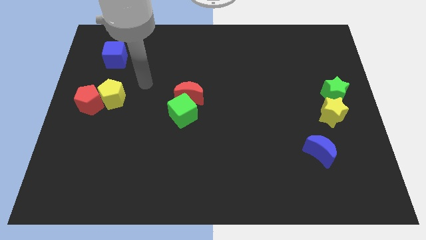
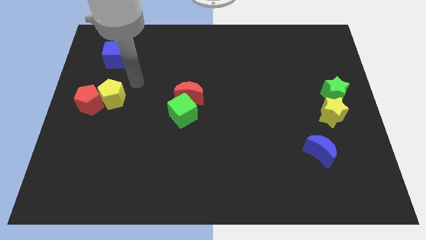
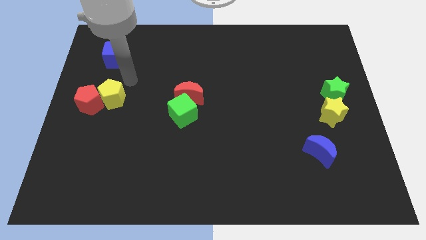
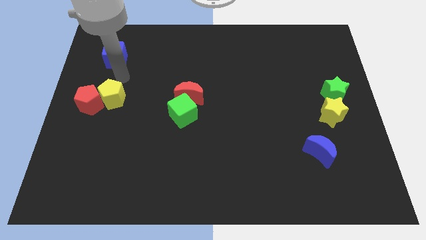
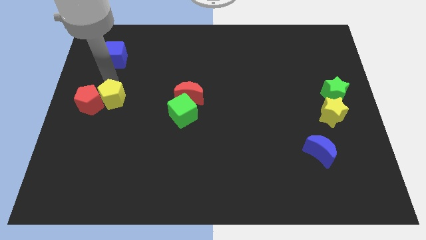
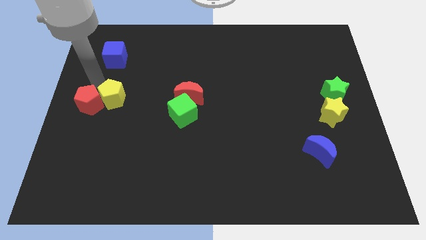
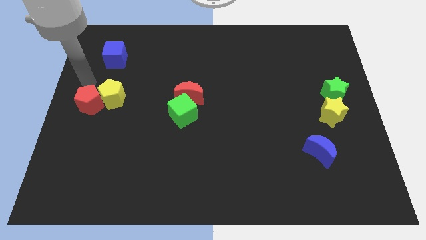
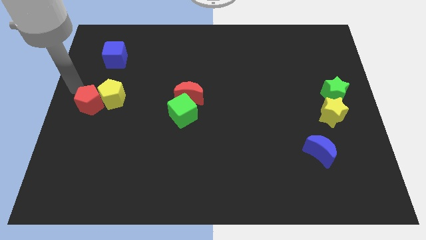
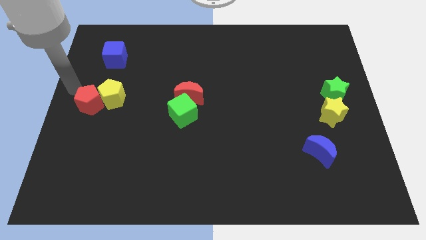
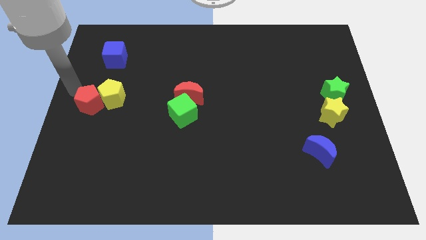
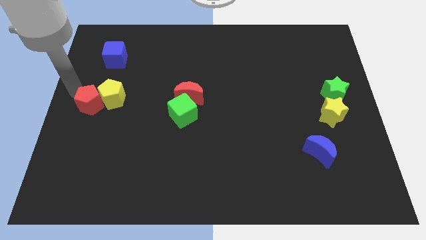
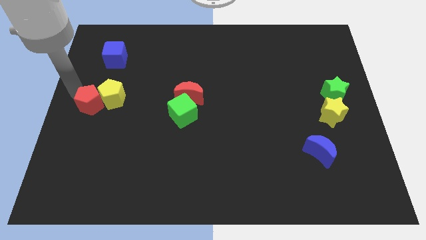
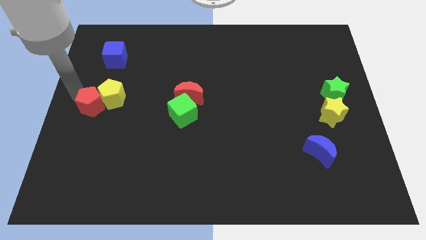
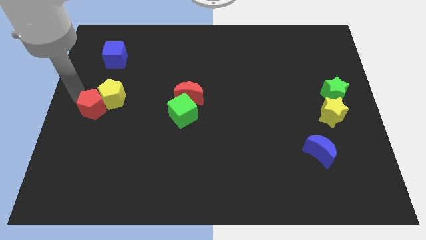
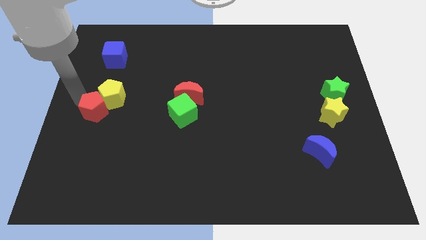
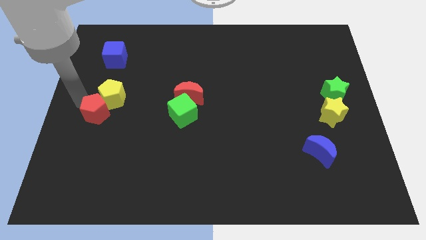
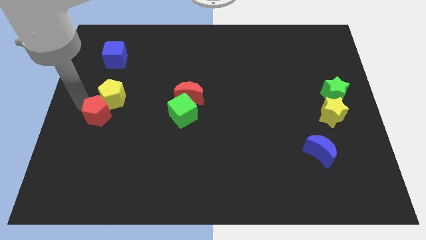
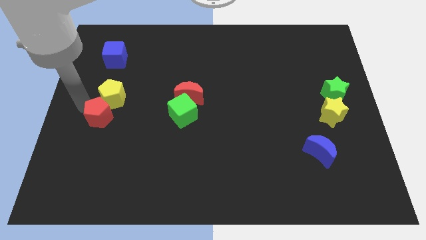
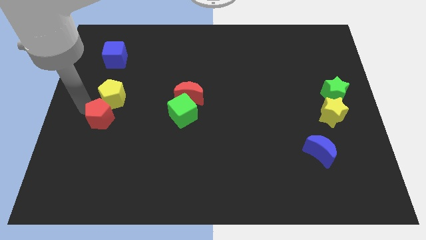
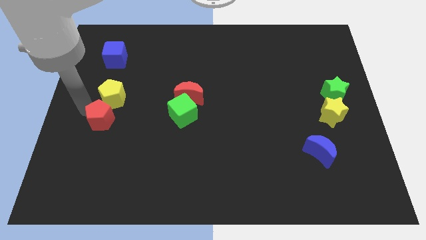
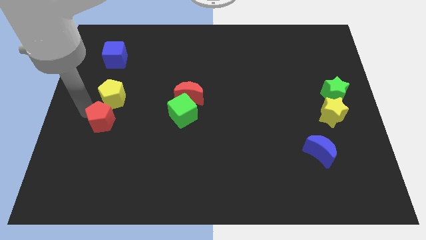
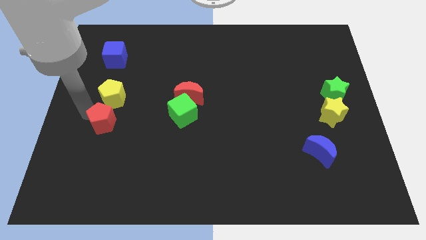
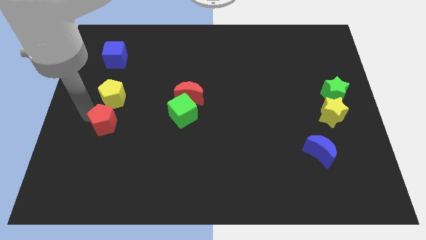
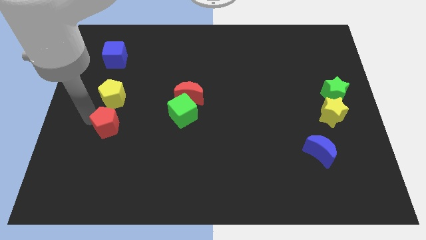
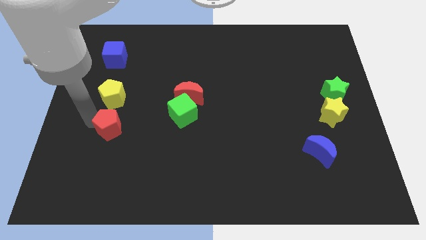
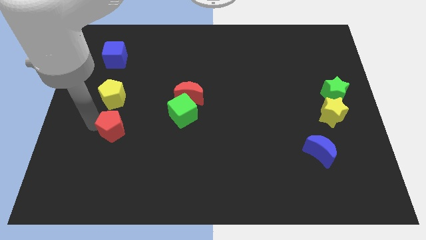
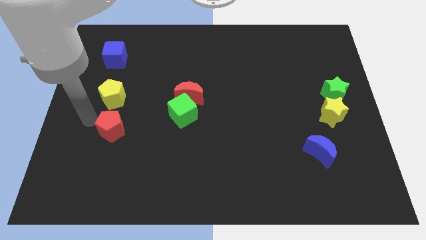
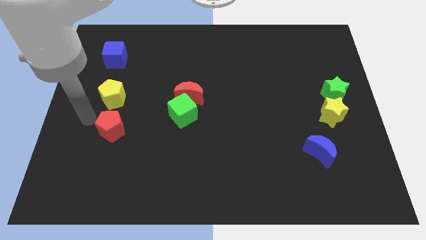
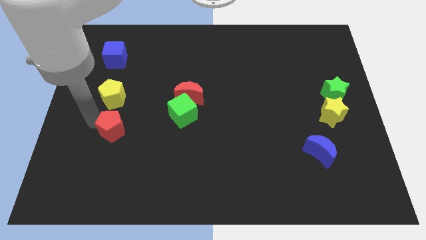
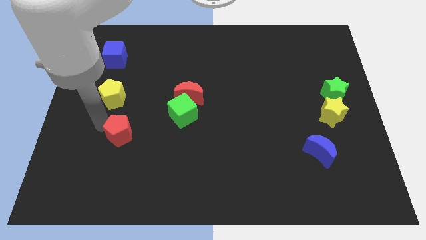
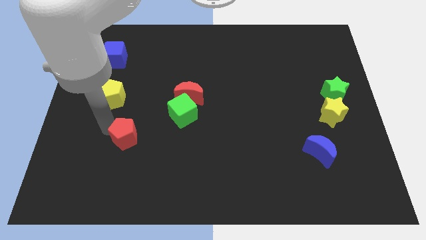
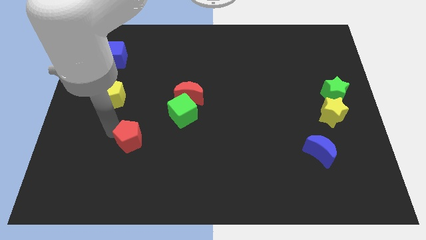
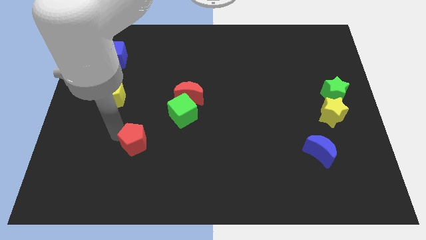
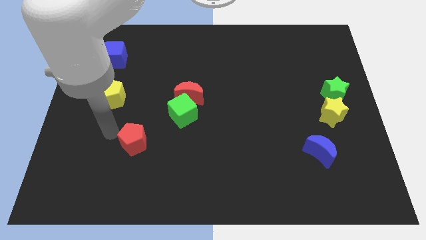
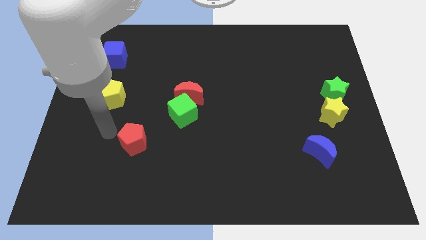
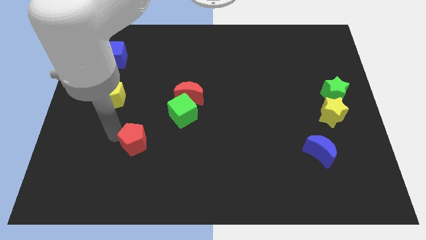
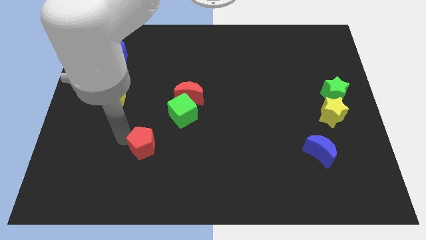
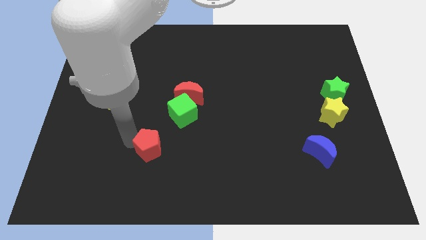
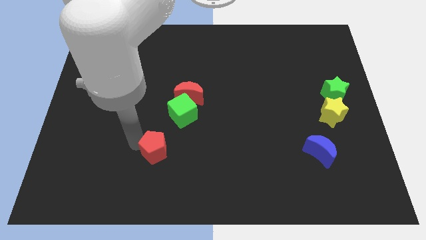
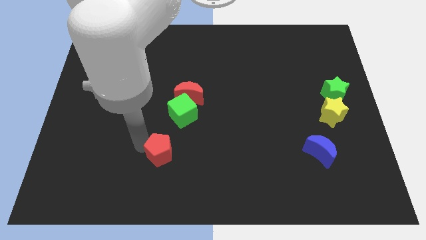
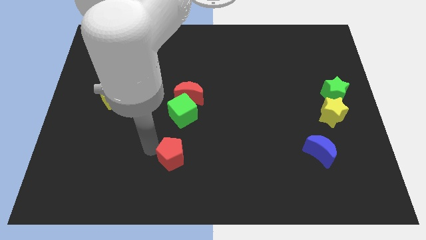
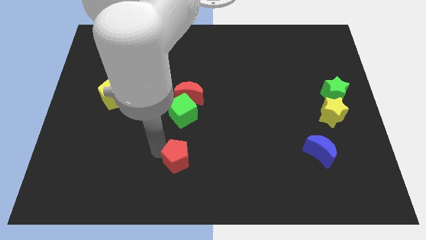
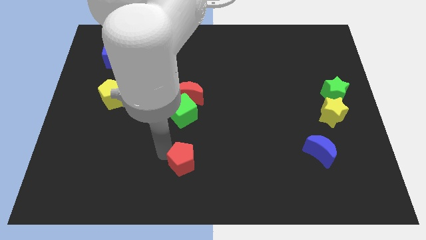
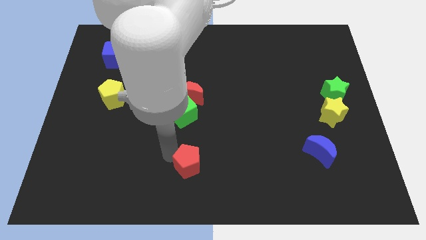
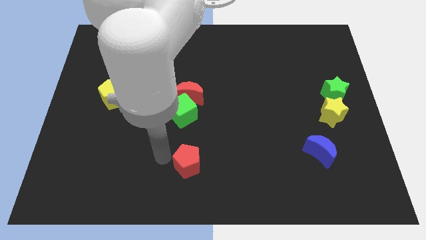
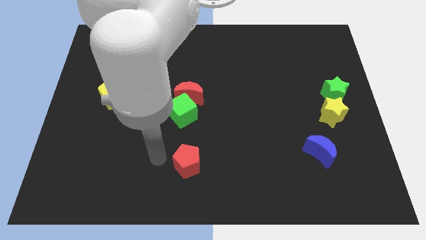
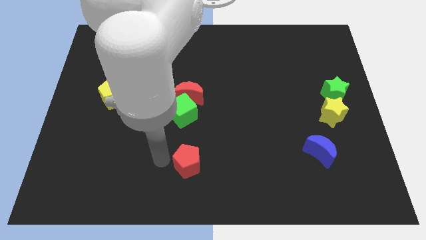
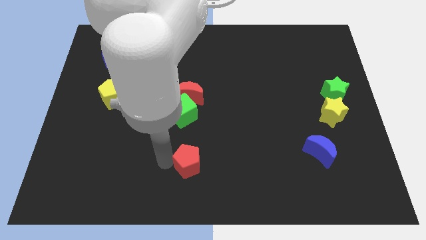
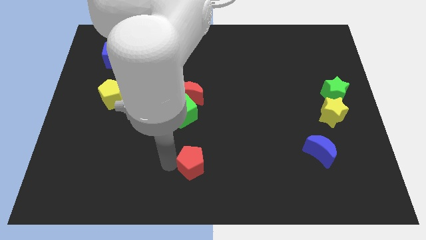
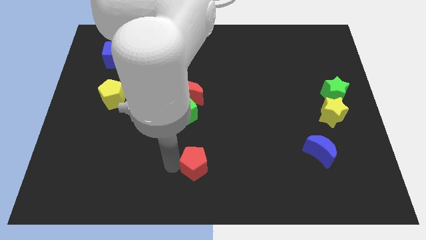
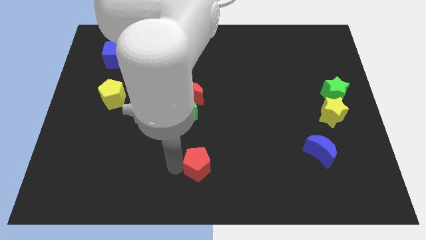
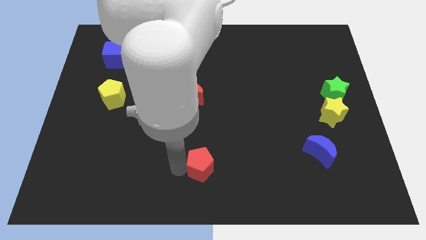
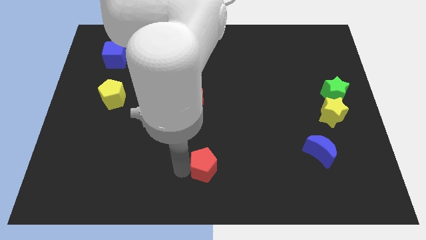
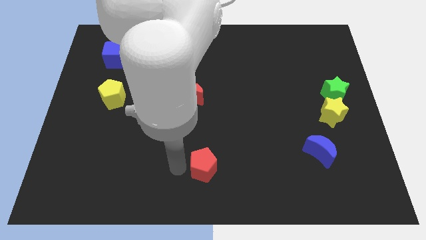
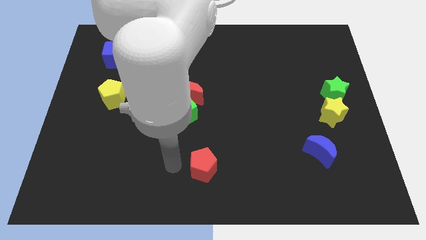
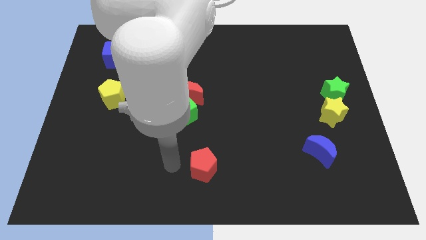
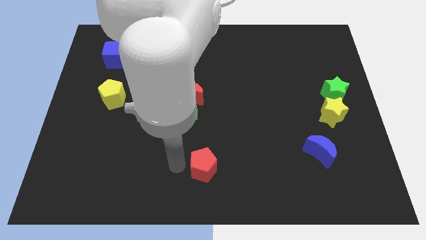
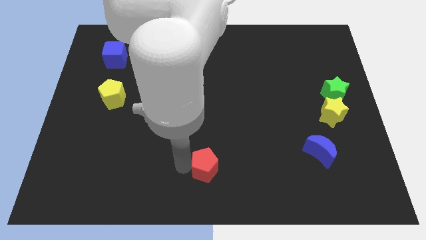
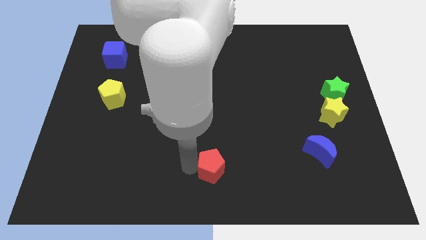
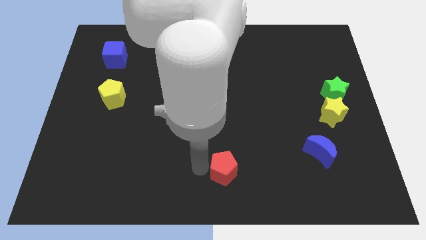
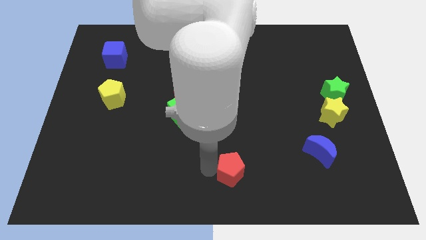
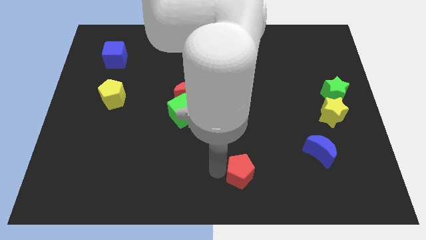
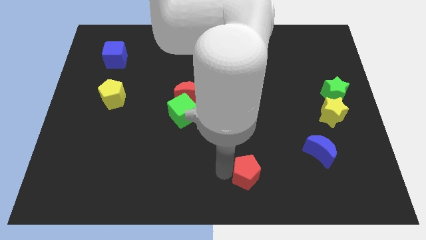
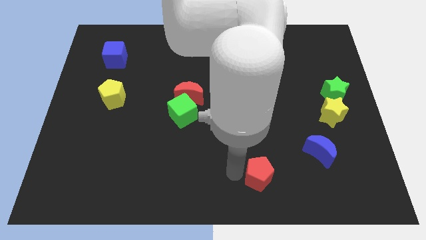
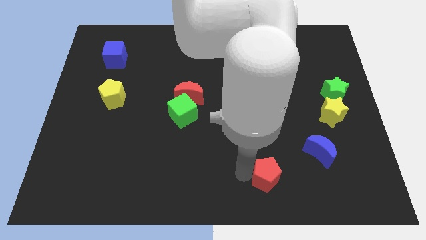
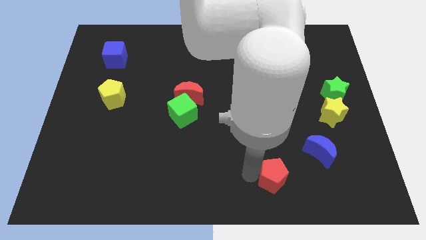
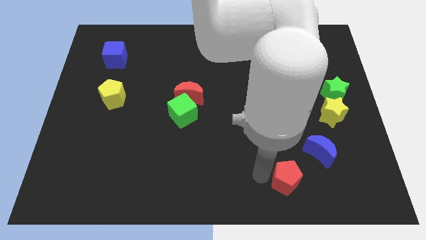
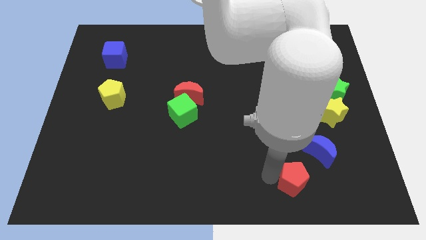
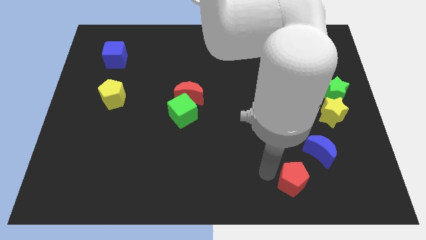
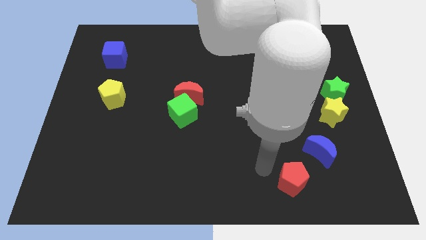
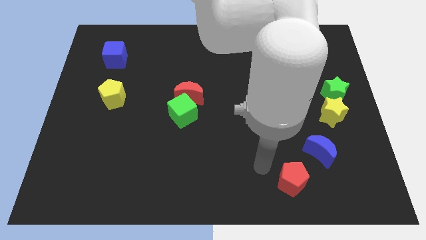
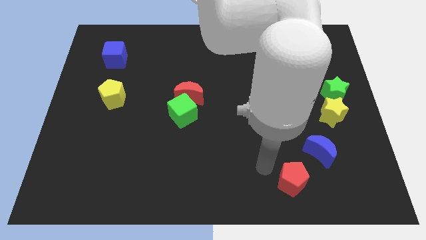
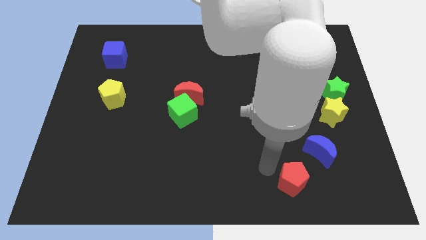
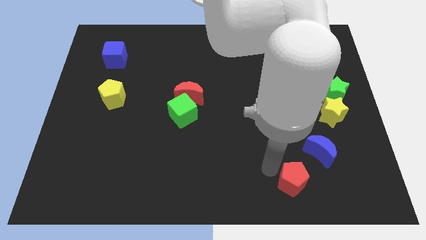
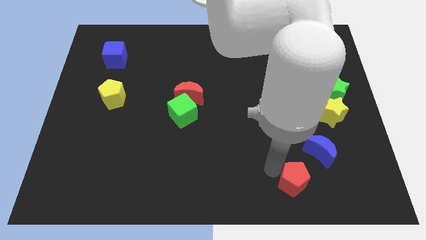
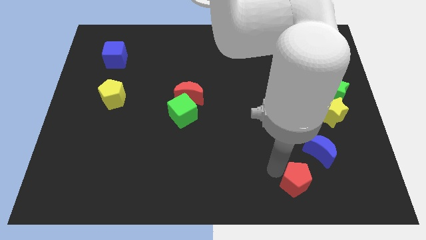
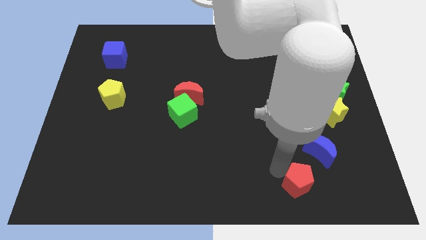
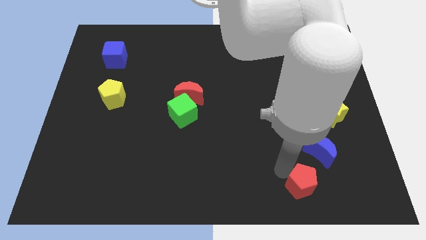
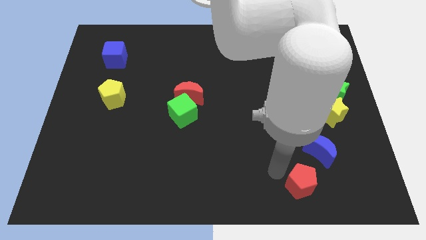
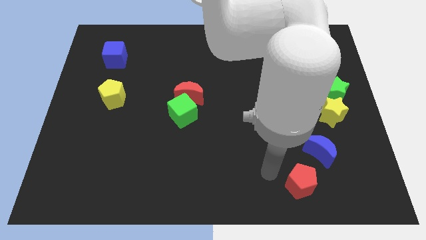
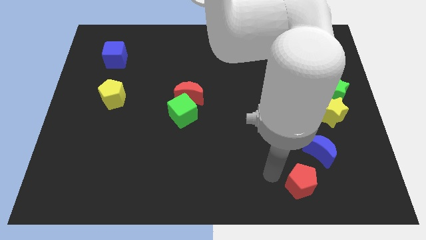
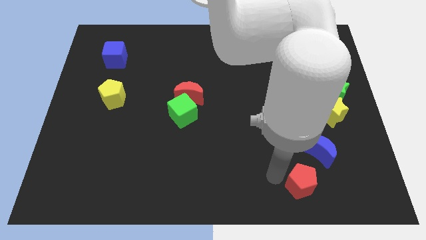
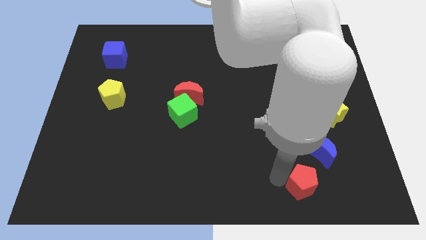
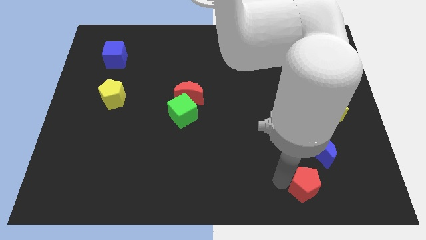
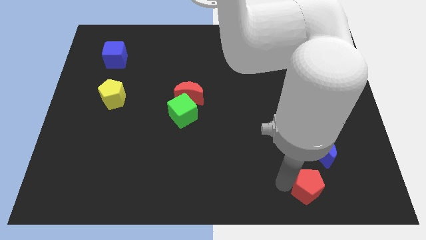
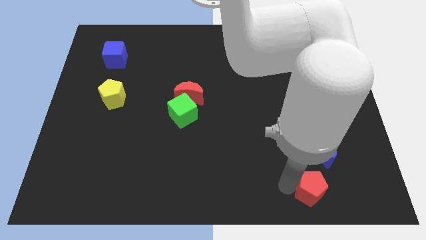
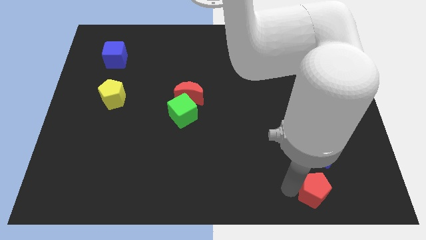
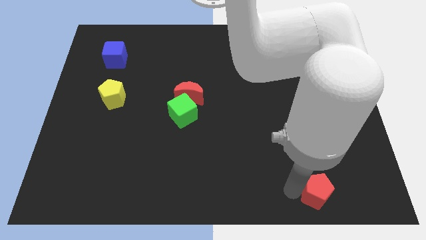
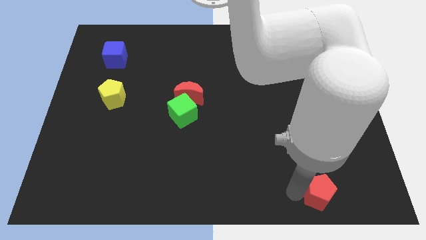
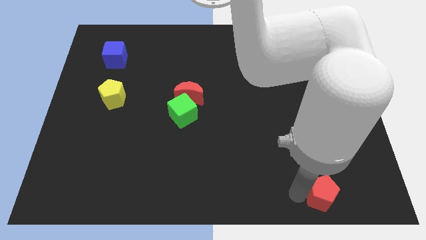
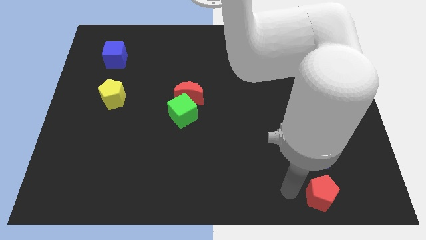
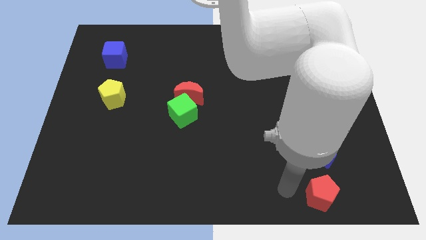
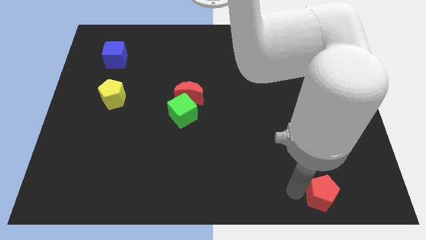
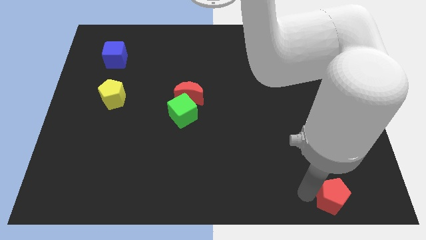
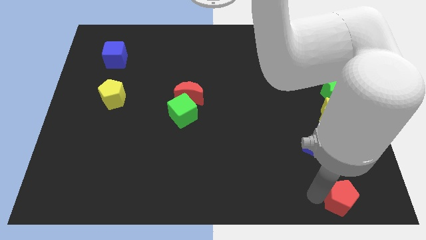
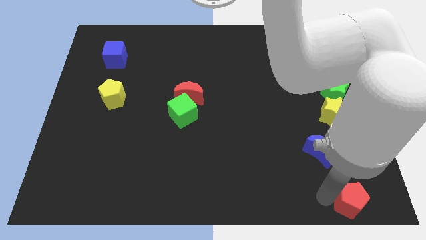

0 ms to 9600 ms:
move the red pentagon to the lower right corner
